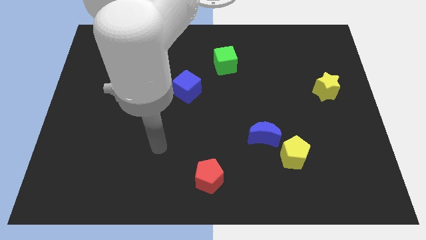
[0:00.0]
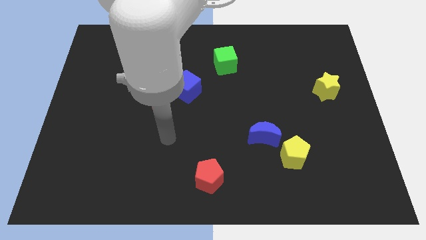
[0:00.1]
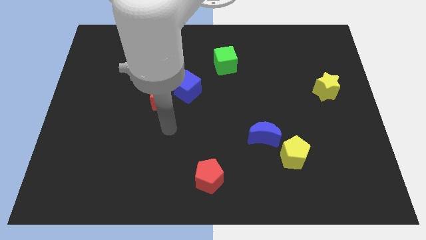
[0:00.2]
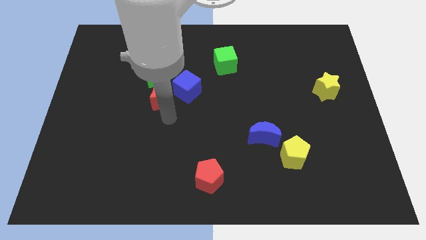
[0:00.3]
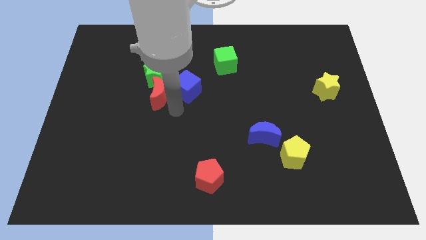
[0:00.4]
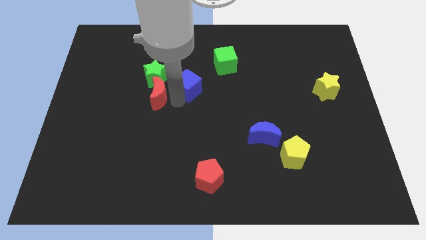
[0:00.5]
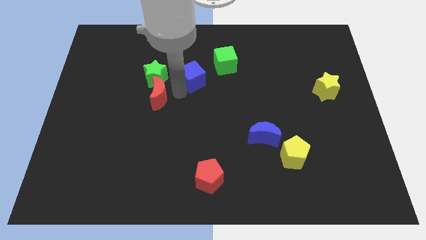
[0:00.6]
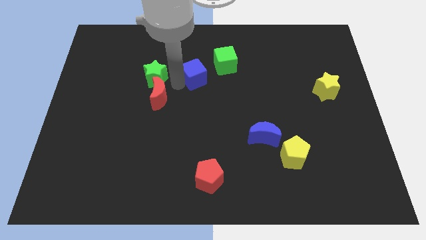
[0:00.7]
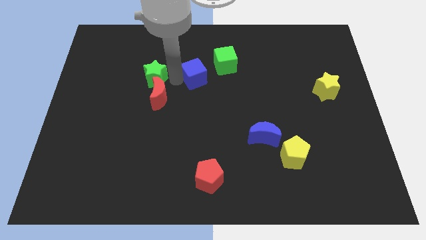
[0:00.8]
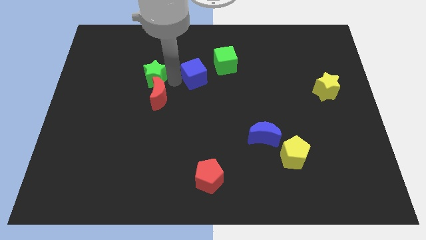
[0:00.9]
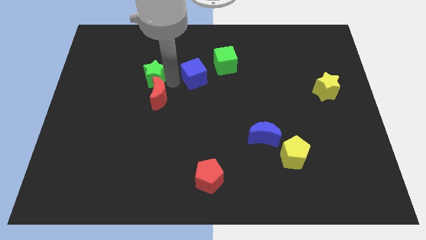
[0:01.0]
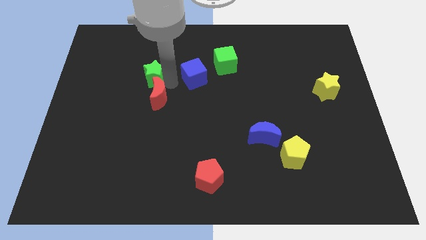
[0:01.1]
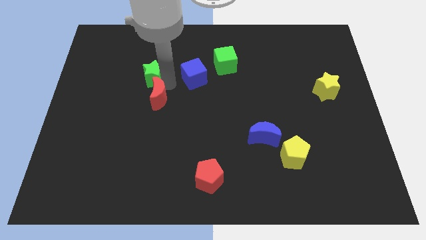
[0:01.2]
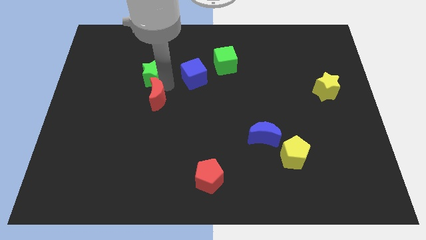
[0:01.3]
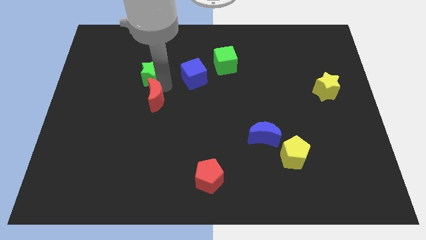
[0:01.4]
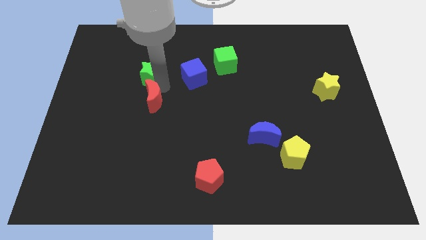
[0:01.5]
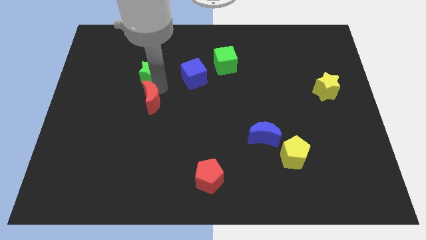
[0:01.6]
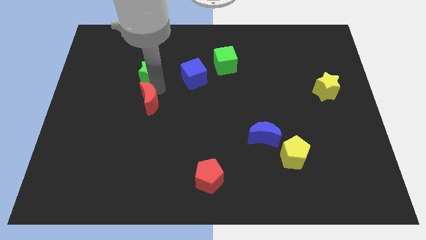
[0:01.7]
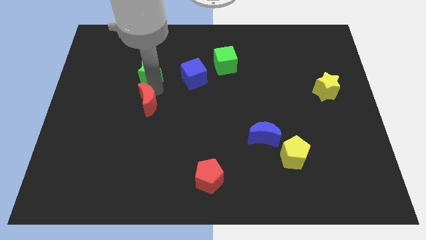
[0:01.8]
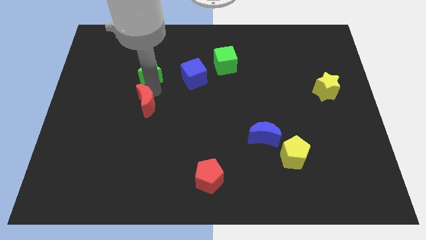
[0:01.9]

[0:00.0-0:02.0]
pull the red moon apart from the green star and blue cube

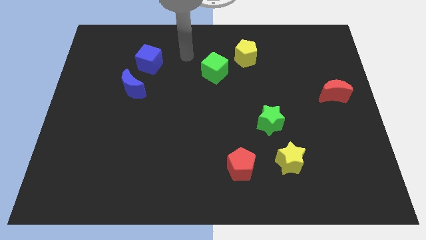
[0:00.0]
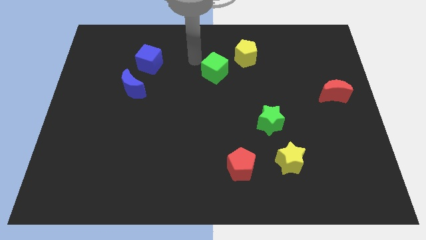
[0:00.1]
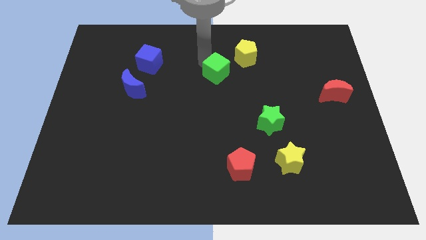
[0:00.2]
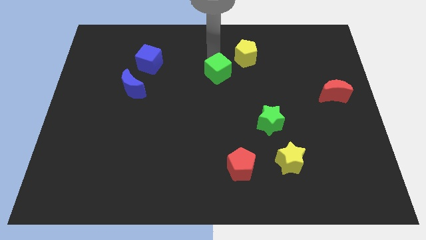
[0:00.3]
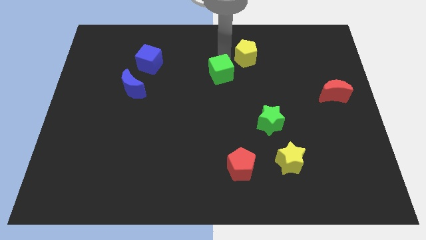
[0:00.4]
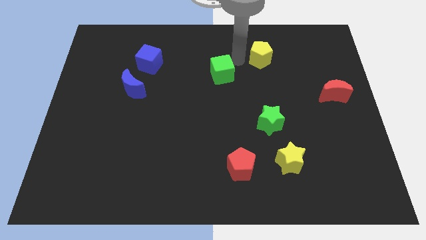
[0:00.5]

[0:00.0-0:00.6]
separate the green cube from the yellow pentagon

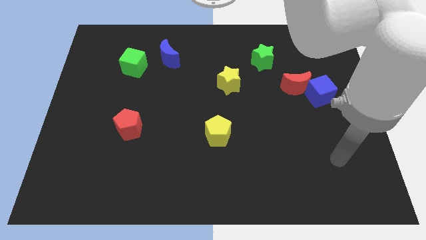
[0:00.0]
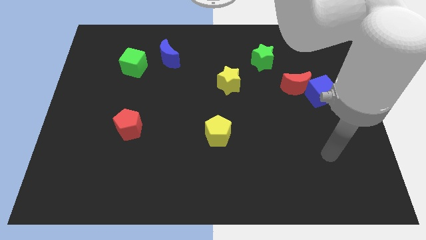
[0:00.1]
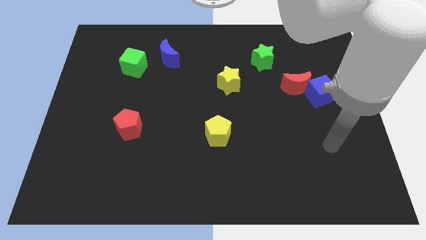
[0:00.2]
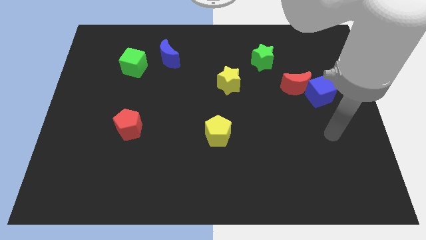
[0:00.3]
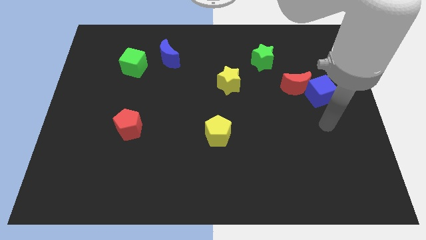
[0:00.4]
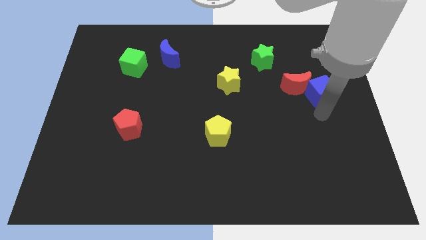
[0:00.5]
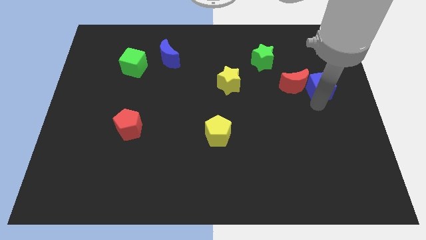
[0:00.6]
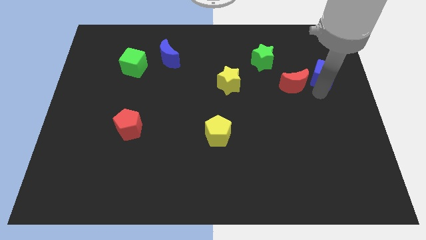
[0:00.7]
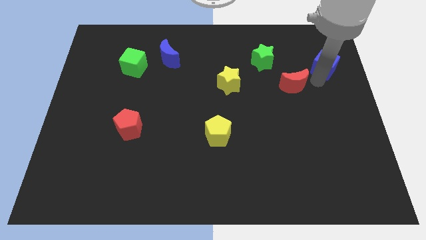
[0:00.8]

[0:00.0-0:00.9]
pull the red moon apart from the blue cube

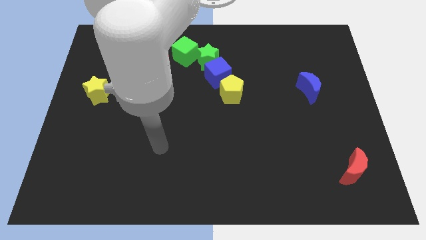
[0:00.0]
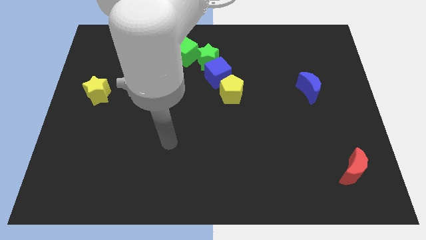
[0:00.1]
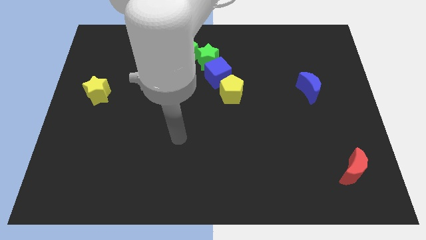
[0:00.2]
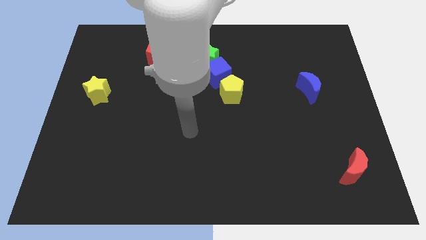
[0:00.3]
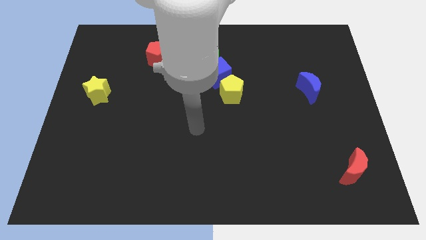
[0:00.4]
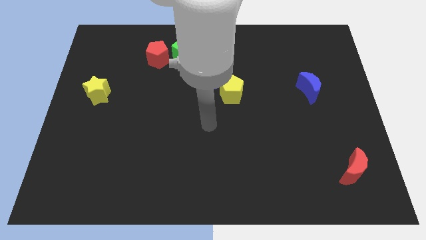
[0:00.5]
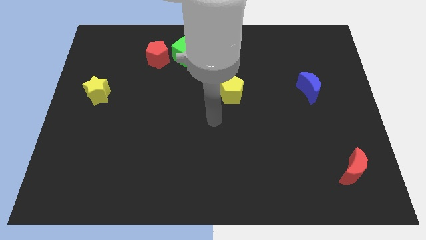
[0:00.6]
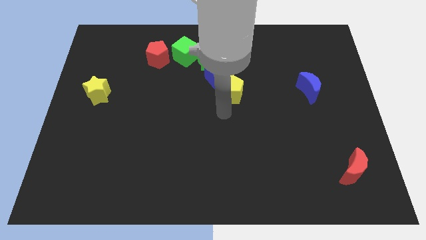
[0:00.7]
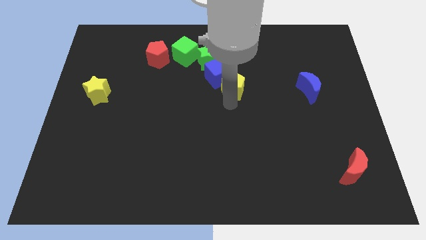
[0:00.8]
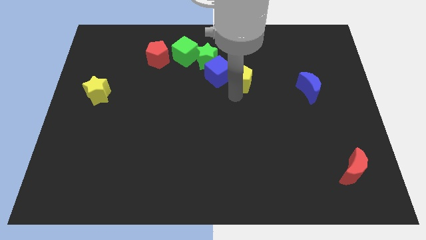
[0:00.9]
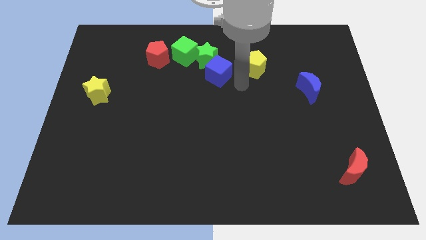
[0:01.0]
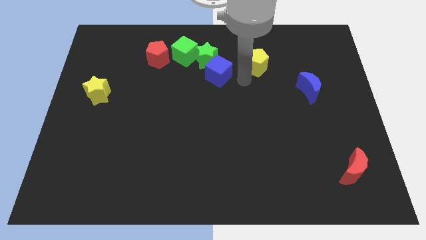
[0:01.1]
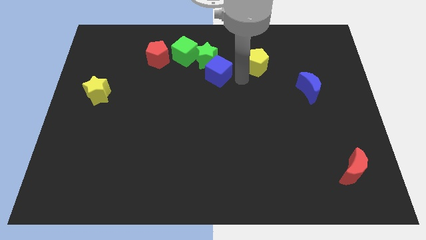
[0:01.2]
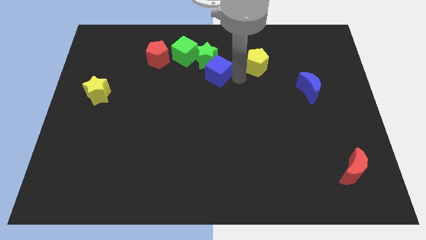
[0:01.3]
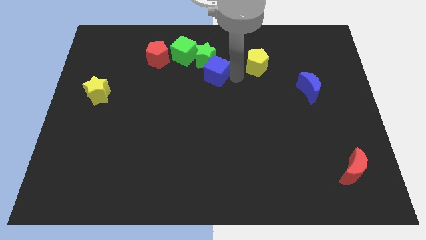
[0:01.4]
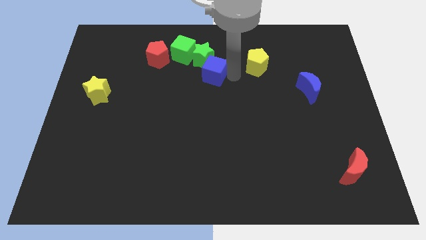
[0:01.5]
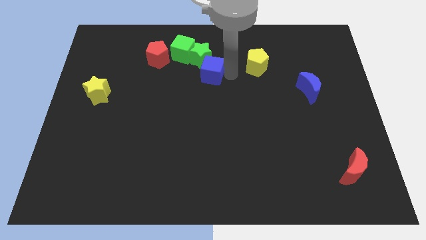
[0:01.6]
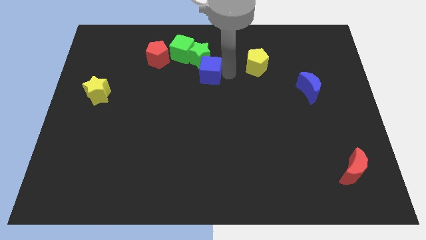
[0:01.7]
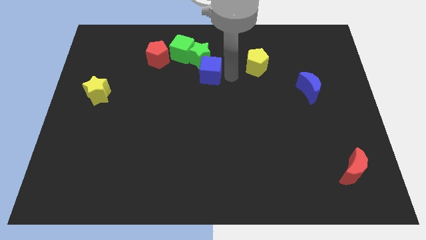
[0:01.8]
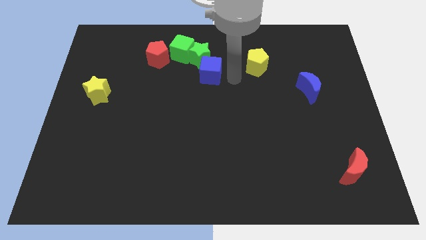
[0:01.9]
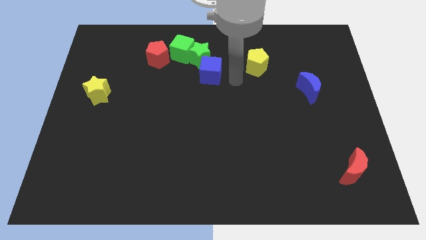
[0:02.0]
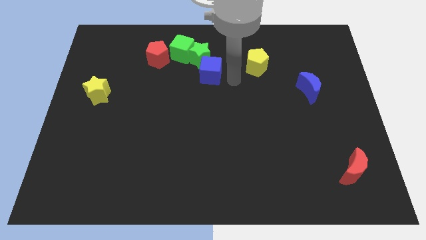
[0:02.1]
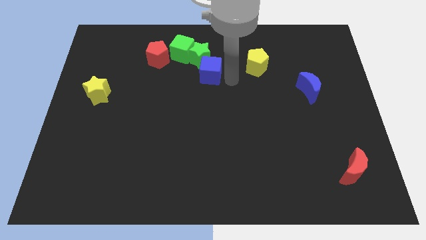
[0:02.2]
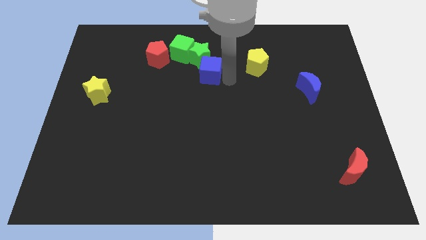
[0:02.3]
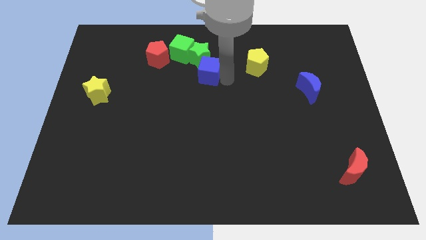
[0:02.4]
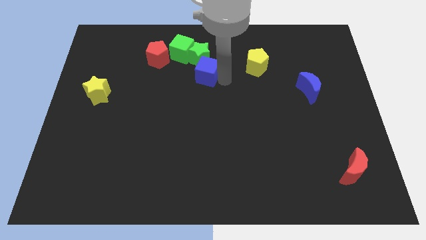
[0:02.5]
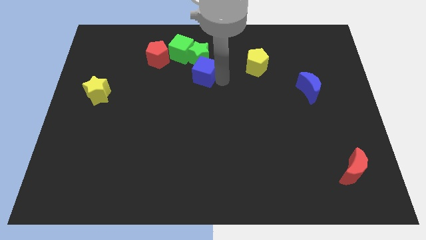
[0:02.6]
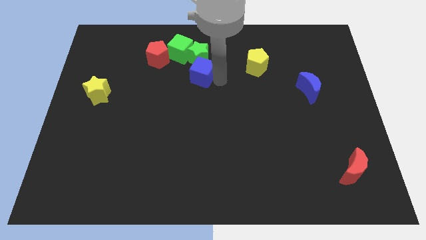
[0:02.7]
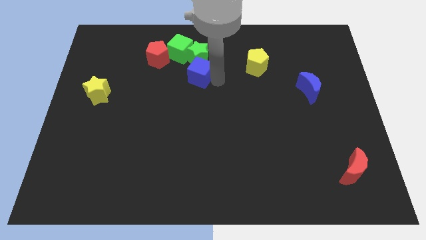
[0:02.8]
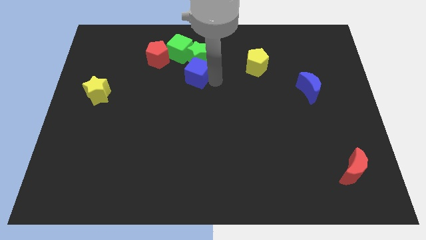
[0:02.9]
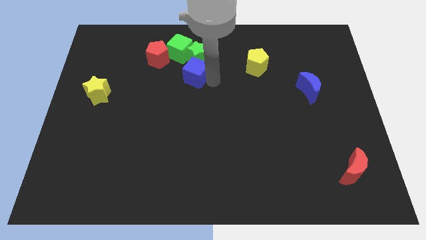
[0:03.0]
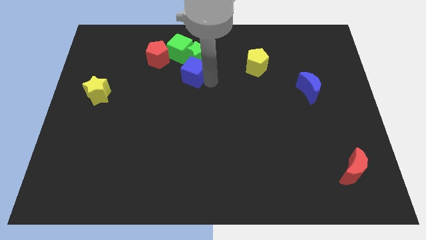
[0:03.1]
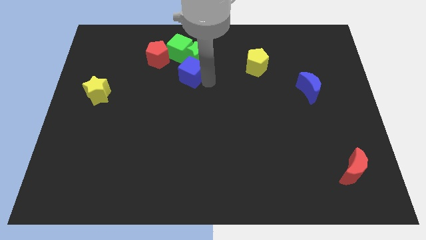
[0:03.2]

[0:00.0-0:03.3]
move the blue cube away from the green star and yellow pentagon

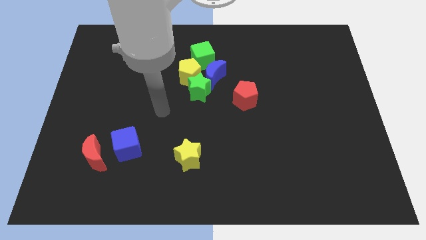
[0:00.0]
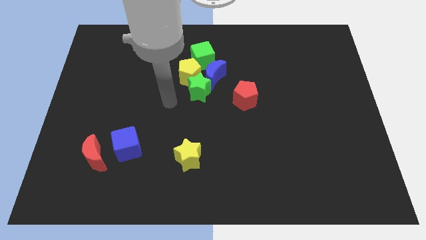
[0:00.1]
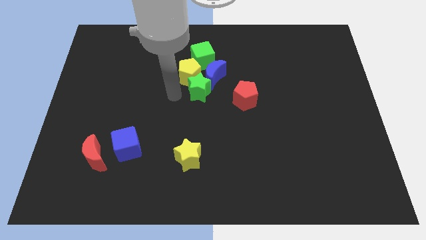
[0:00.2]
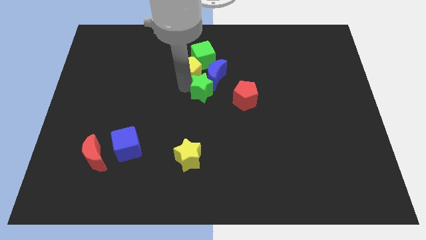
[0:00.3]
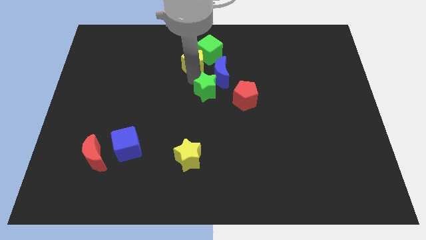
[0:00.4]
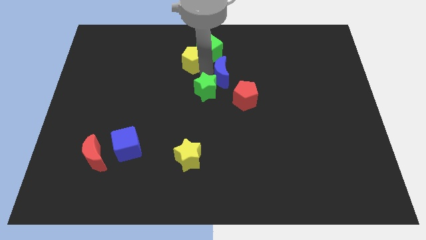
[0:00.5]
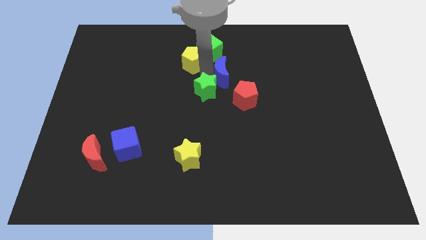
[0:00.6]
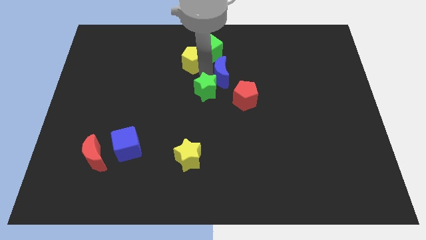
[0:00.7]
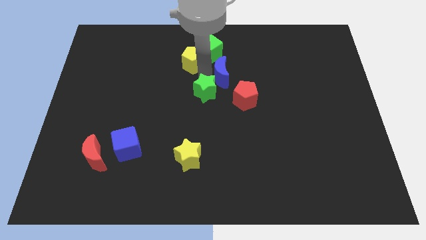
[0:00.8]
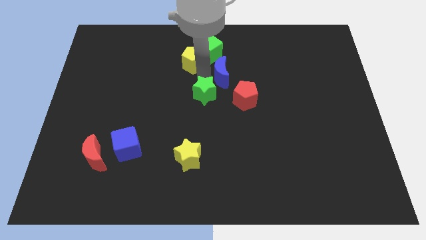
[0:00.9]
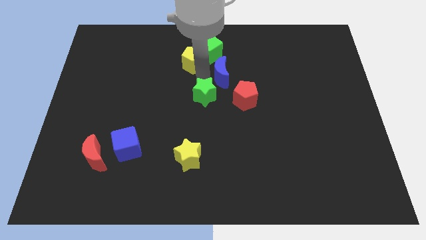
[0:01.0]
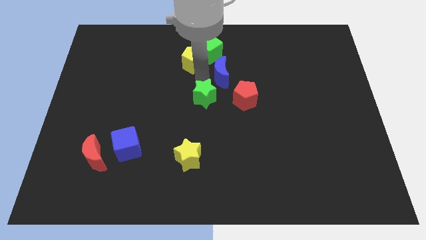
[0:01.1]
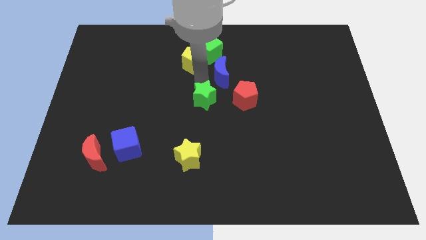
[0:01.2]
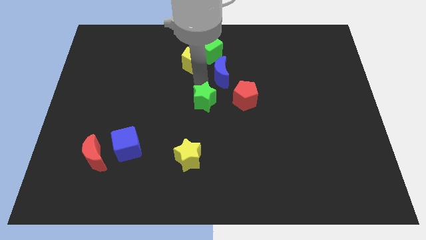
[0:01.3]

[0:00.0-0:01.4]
separate the green star from the blue moon and yellow pentagon

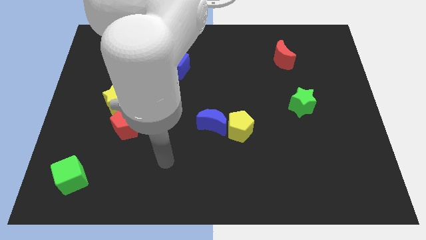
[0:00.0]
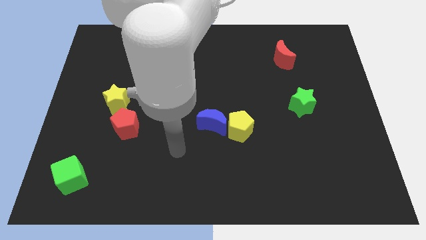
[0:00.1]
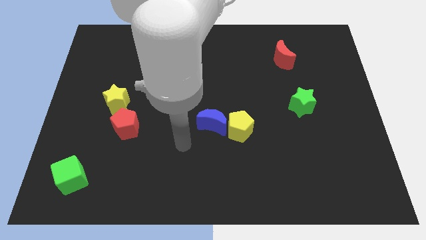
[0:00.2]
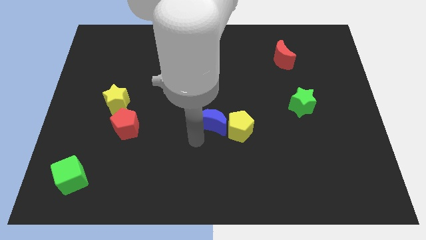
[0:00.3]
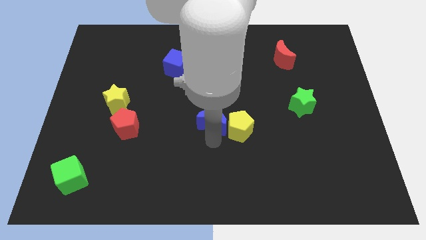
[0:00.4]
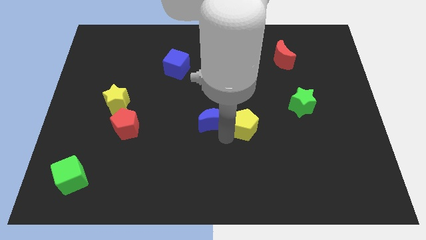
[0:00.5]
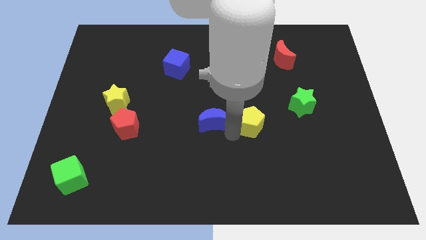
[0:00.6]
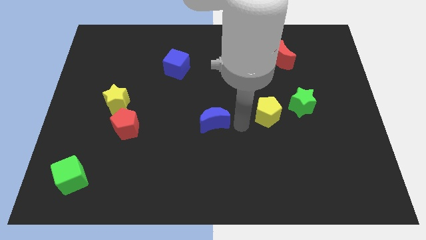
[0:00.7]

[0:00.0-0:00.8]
pull the blue moon apart from the yellow pentagon

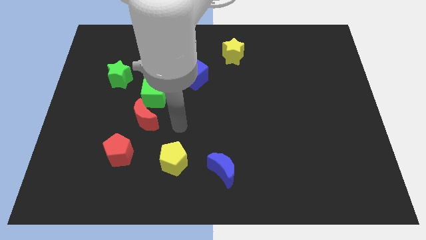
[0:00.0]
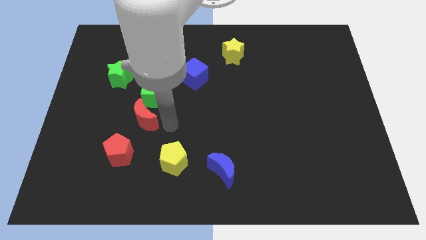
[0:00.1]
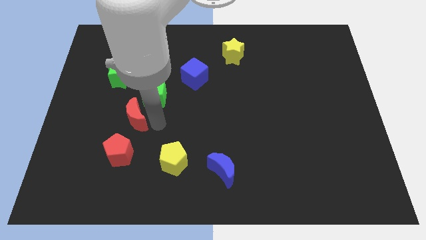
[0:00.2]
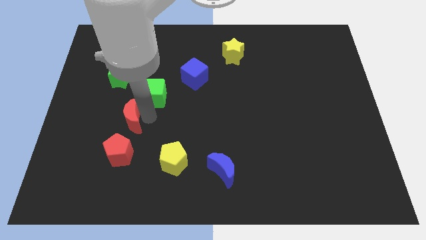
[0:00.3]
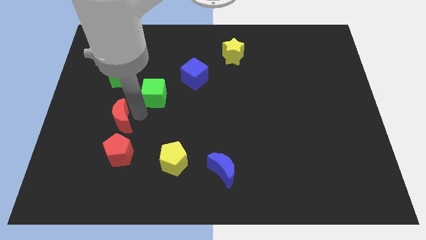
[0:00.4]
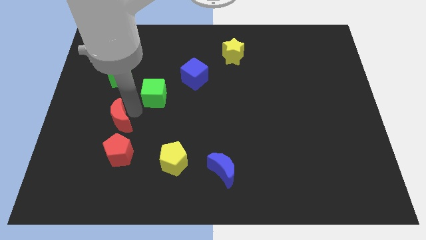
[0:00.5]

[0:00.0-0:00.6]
separate the green cube from the red moon
